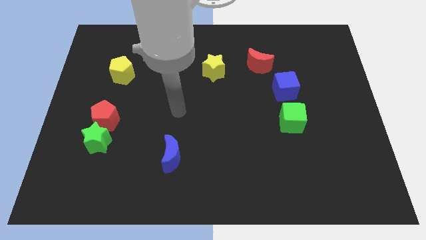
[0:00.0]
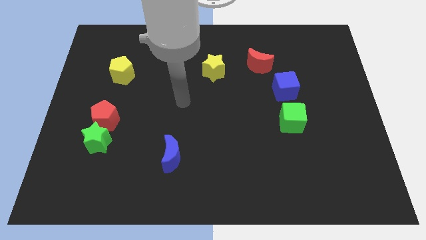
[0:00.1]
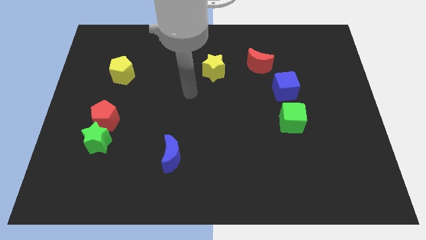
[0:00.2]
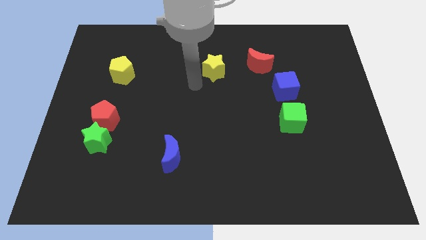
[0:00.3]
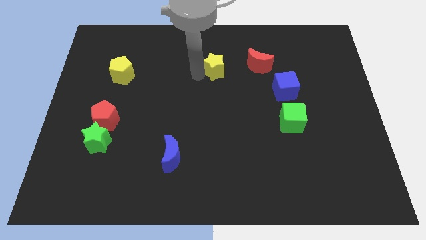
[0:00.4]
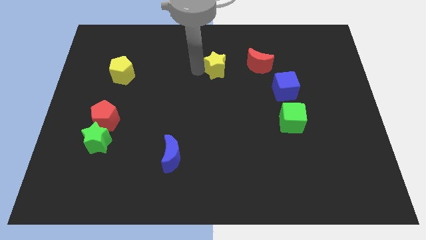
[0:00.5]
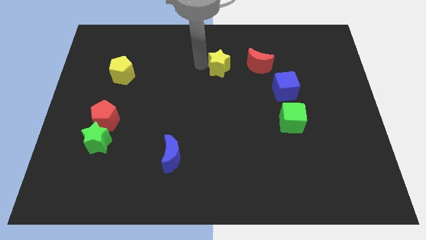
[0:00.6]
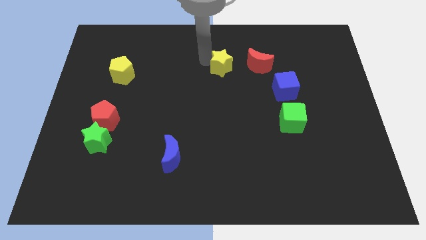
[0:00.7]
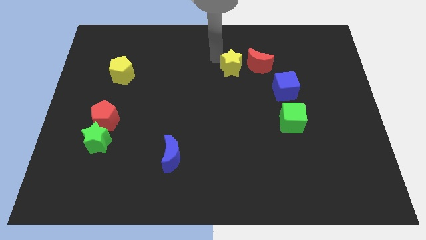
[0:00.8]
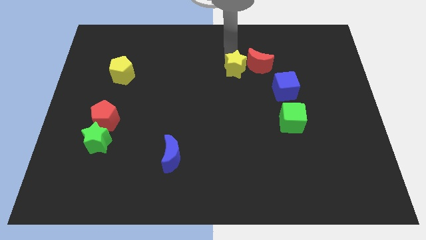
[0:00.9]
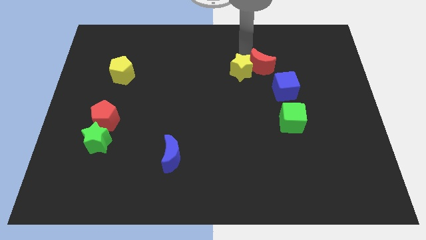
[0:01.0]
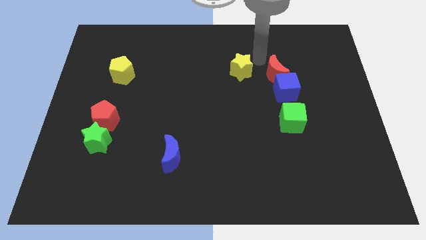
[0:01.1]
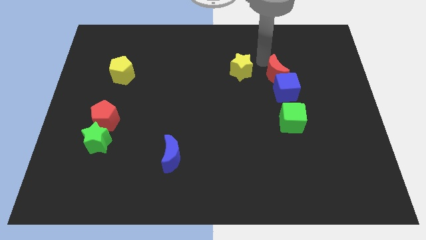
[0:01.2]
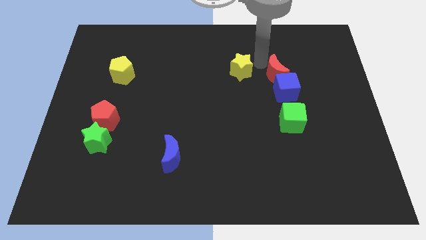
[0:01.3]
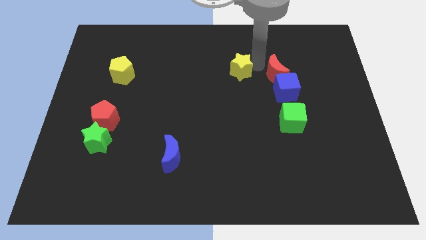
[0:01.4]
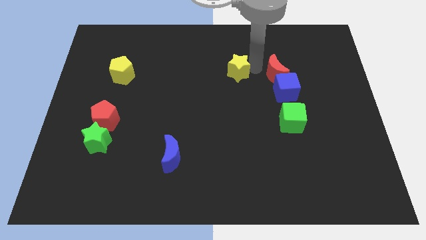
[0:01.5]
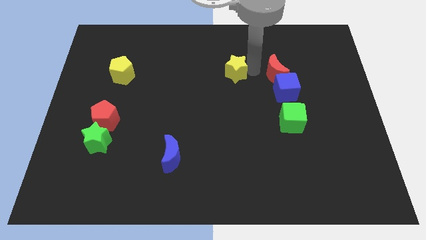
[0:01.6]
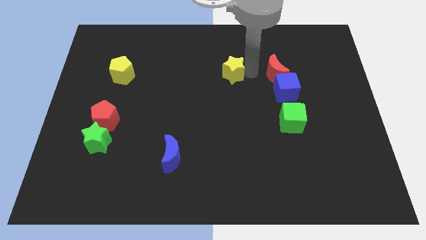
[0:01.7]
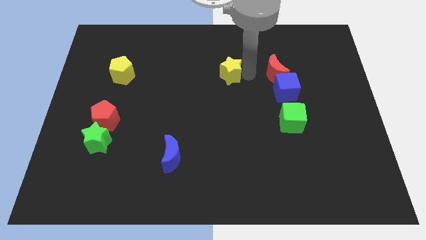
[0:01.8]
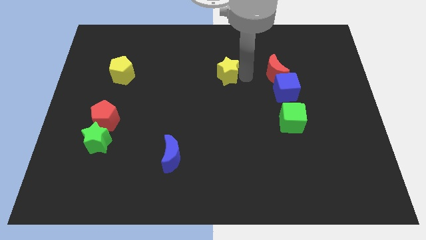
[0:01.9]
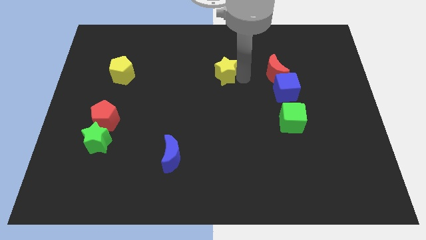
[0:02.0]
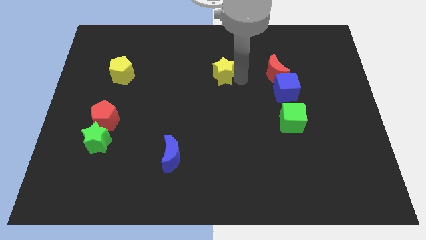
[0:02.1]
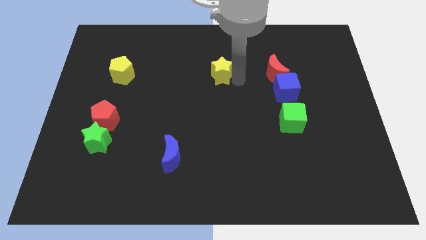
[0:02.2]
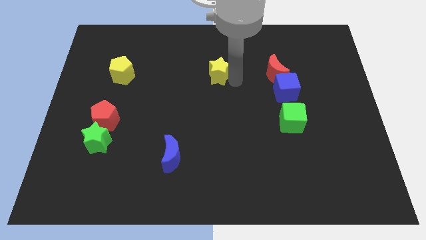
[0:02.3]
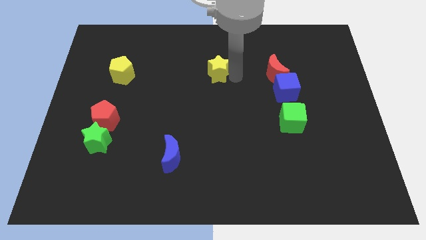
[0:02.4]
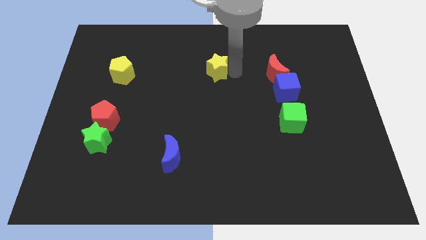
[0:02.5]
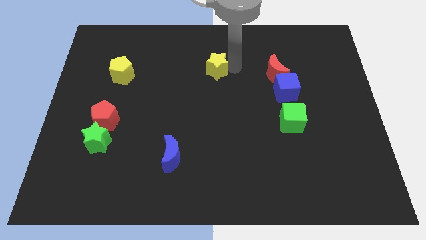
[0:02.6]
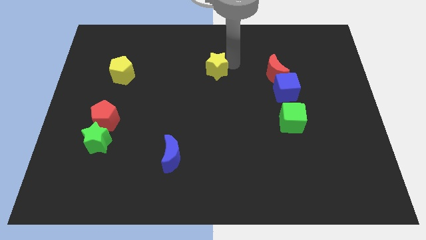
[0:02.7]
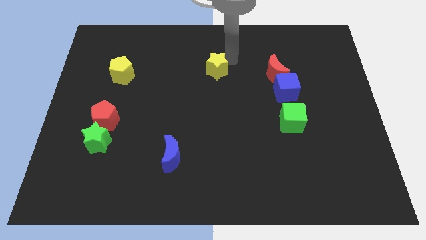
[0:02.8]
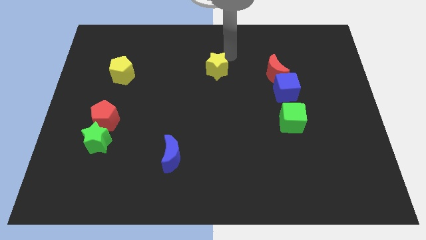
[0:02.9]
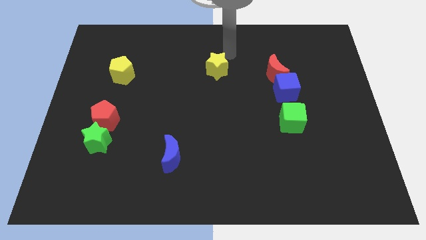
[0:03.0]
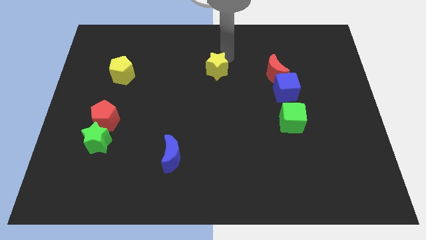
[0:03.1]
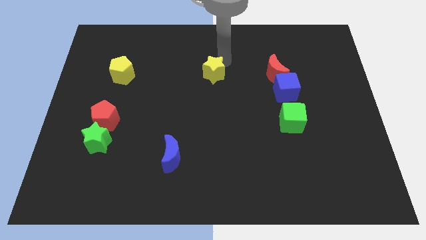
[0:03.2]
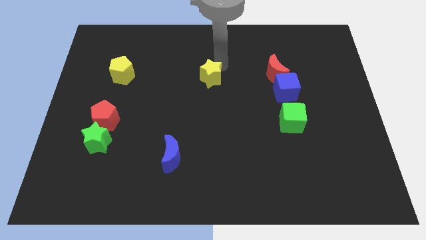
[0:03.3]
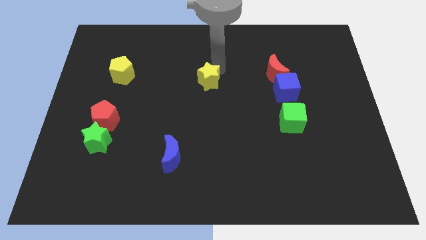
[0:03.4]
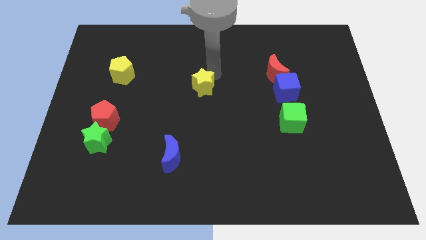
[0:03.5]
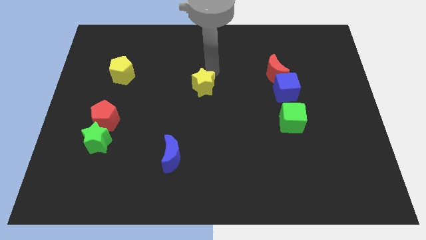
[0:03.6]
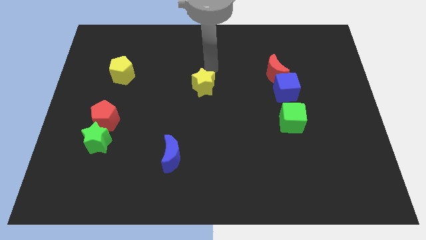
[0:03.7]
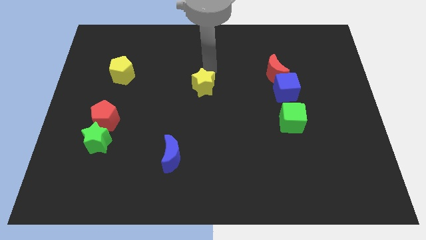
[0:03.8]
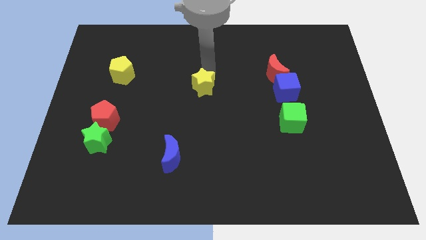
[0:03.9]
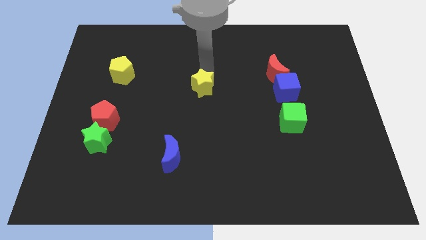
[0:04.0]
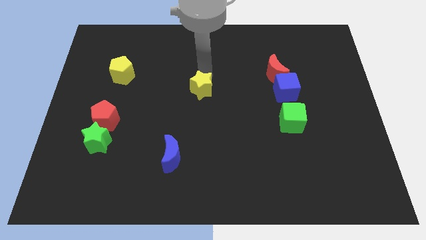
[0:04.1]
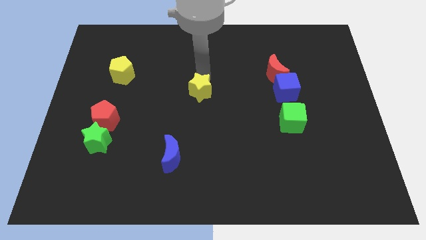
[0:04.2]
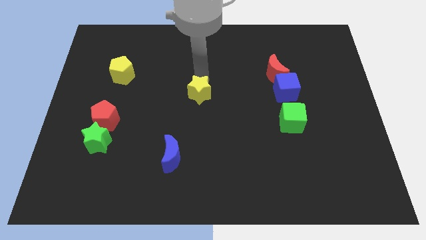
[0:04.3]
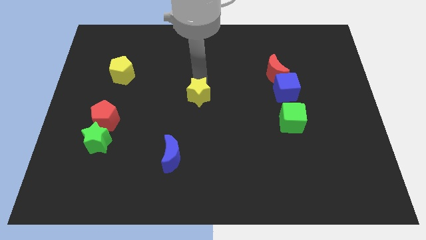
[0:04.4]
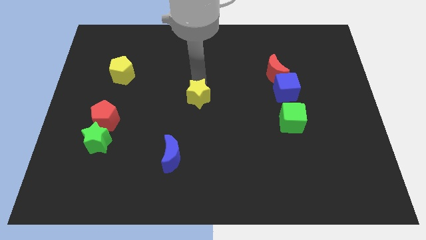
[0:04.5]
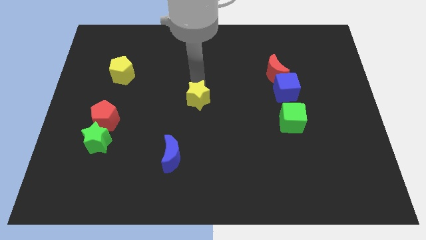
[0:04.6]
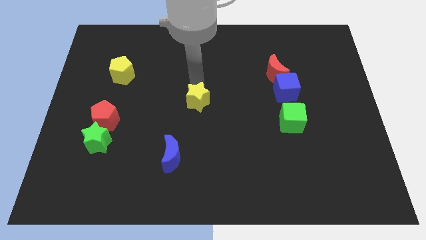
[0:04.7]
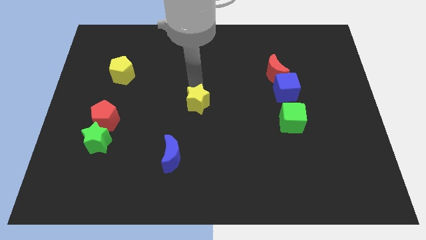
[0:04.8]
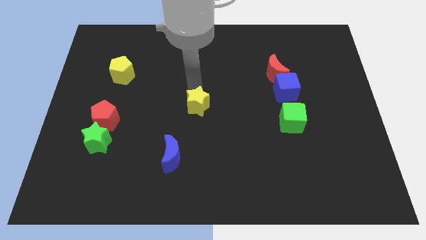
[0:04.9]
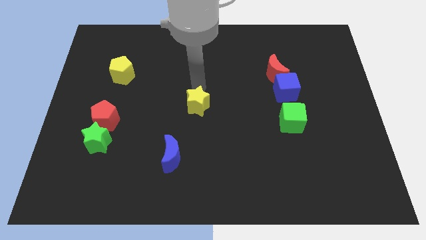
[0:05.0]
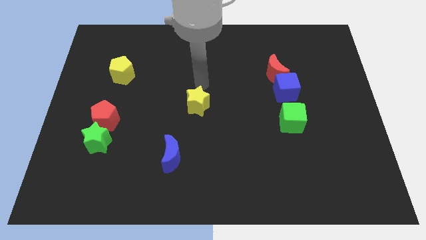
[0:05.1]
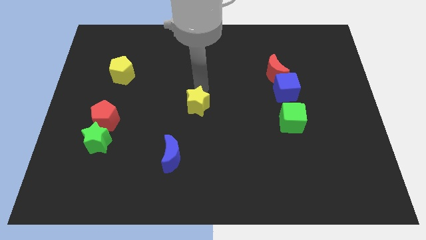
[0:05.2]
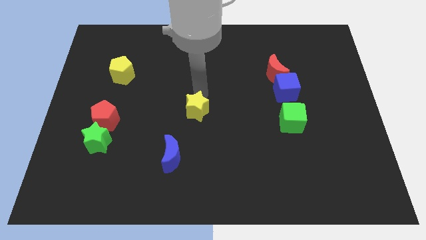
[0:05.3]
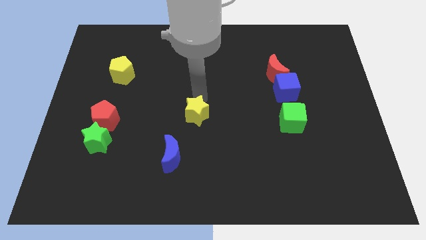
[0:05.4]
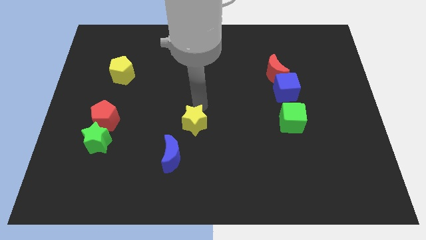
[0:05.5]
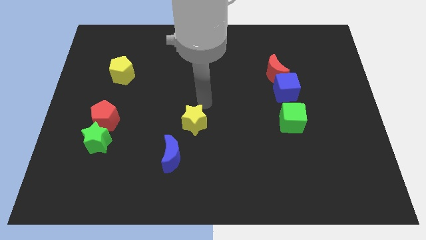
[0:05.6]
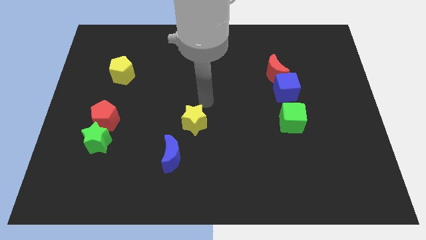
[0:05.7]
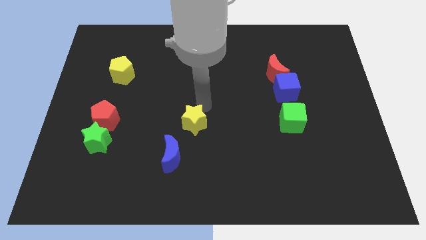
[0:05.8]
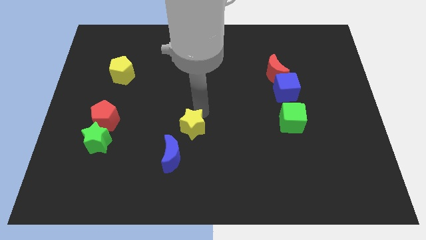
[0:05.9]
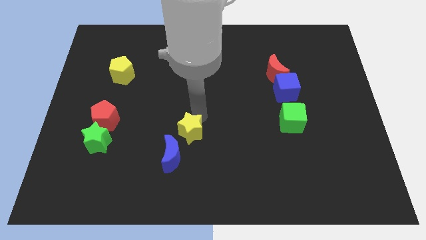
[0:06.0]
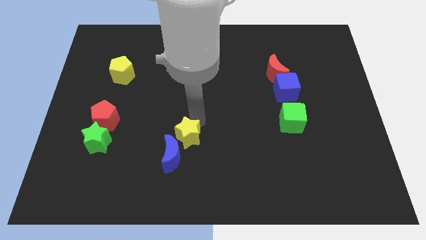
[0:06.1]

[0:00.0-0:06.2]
put the yellow star next to the blue moon

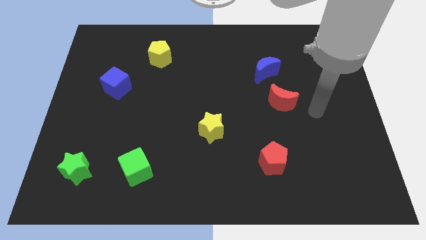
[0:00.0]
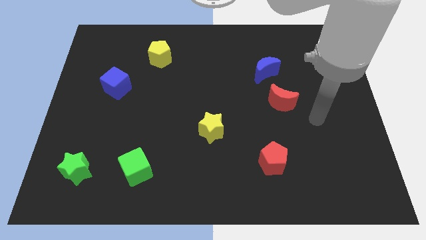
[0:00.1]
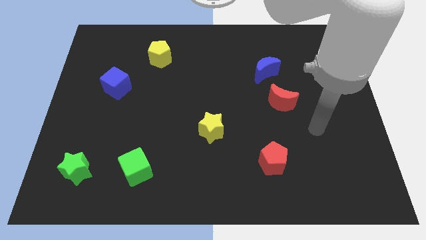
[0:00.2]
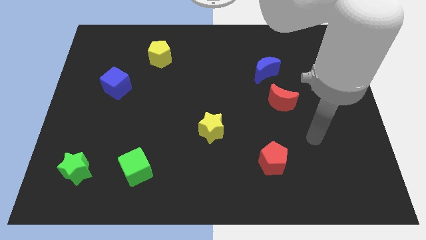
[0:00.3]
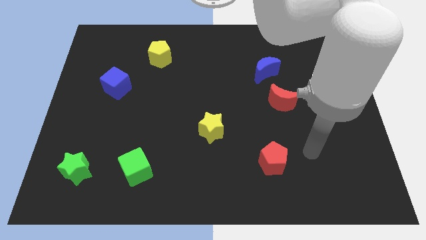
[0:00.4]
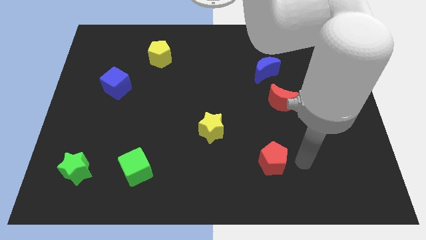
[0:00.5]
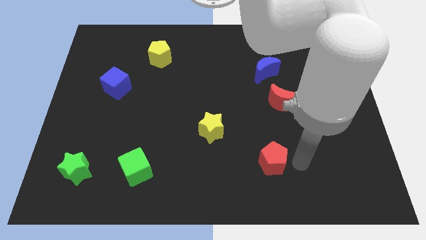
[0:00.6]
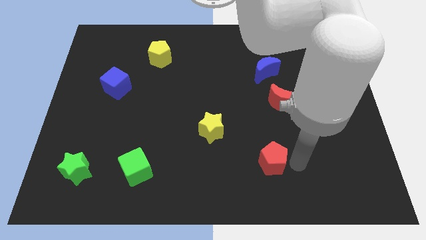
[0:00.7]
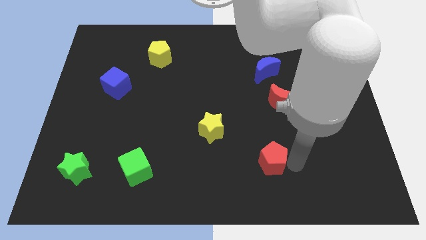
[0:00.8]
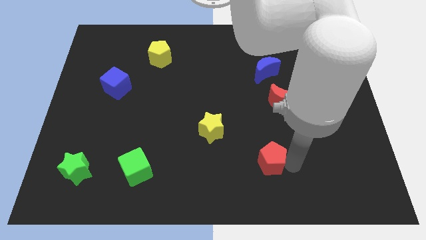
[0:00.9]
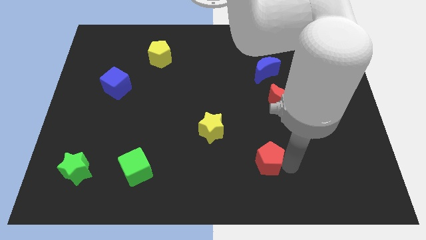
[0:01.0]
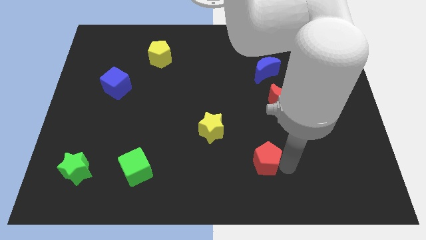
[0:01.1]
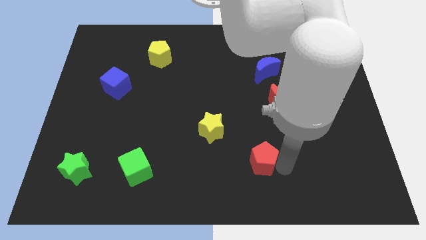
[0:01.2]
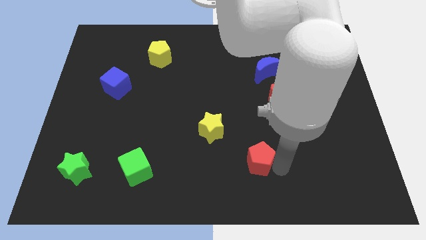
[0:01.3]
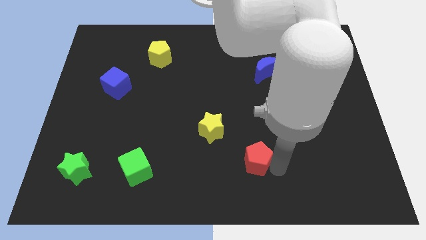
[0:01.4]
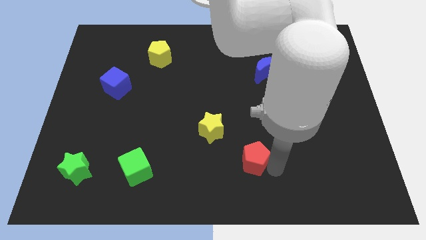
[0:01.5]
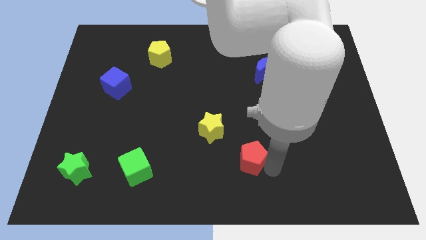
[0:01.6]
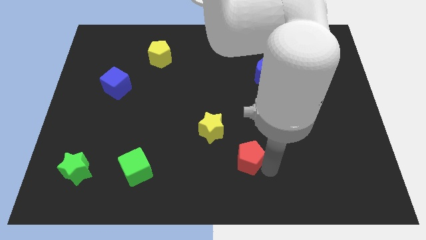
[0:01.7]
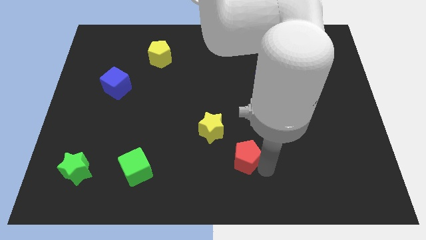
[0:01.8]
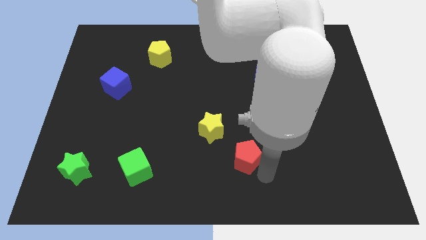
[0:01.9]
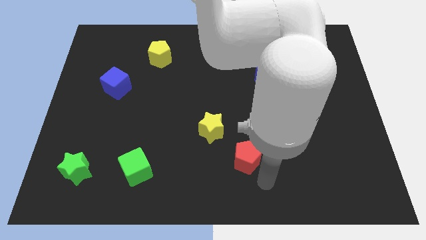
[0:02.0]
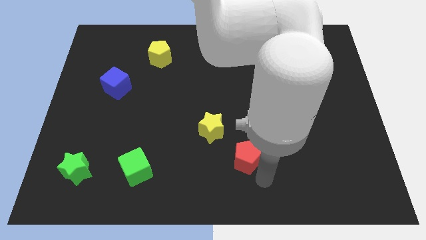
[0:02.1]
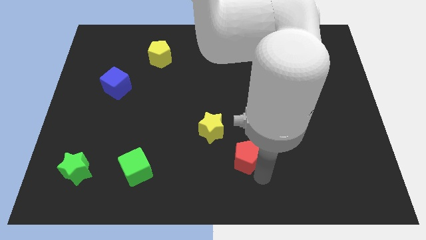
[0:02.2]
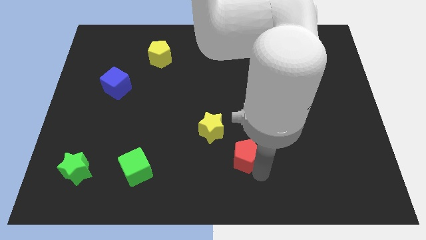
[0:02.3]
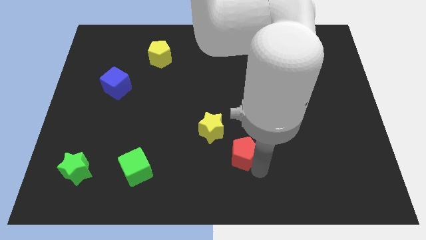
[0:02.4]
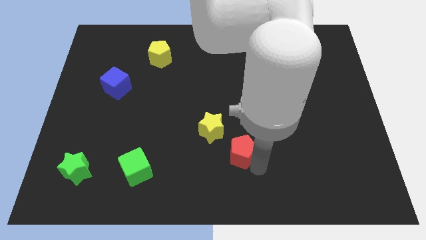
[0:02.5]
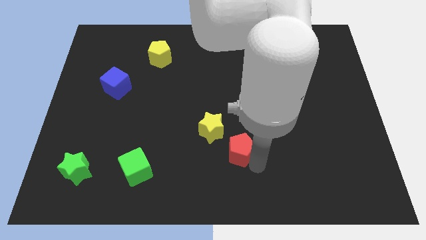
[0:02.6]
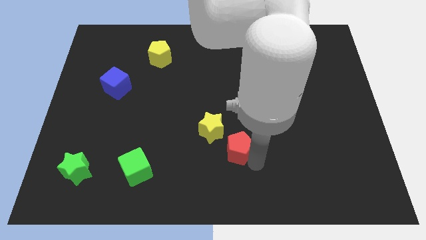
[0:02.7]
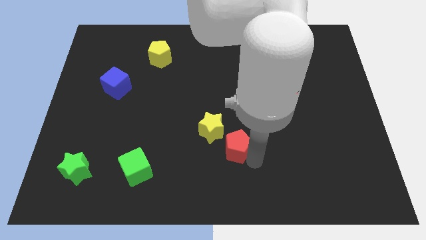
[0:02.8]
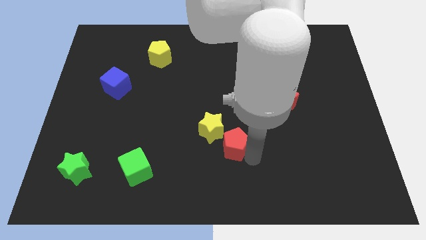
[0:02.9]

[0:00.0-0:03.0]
push the red pentagon towards the yellow star
